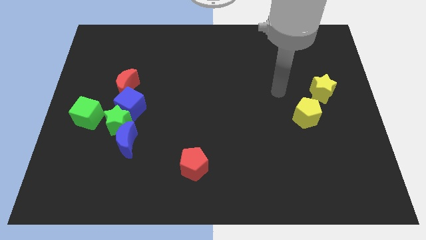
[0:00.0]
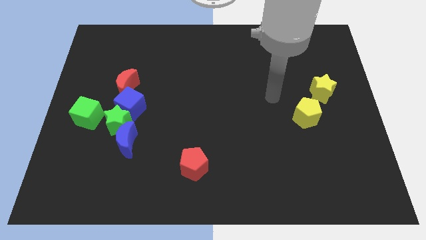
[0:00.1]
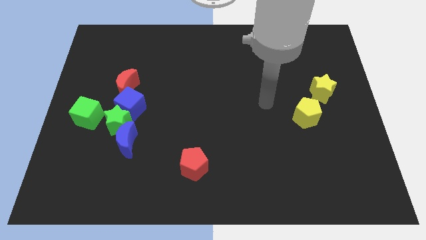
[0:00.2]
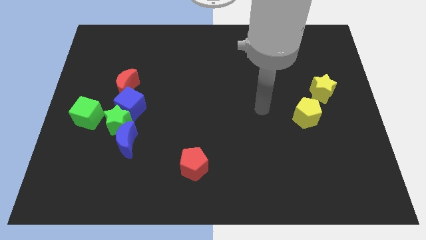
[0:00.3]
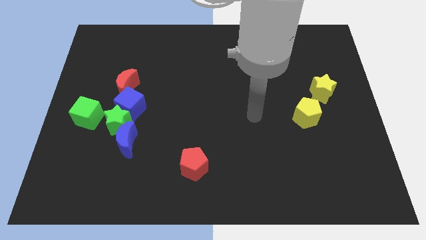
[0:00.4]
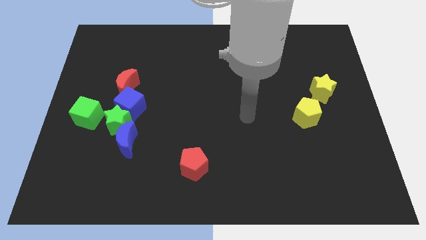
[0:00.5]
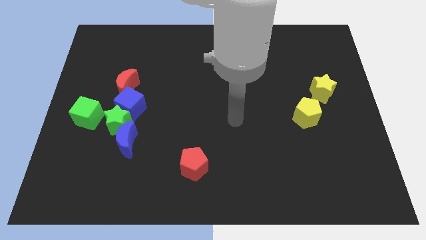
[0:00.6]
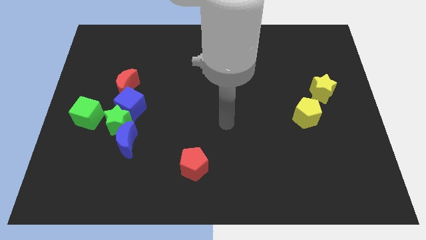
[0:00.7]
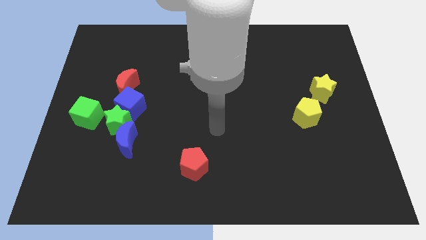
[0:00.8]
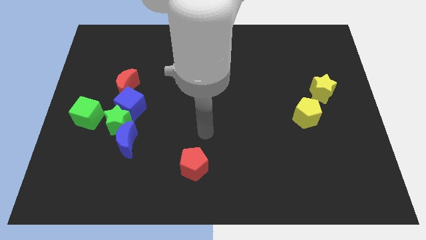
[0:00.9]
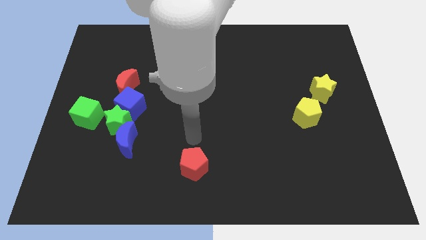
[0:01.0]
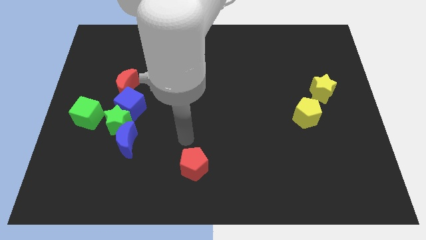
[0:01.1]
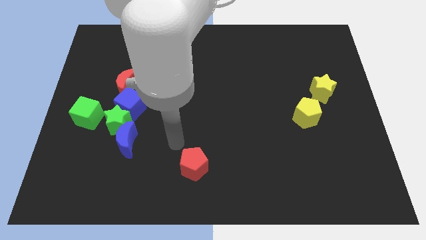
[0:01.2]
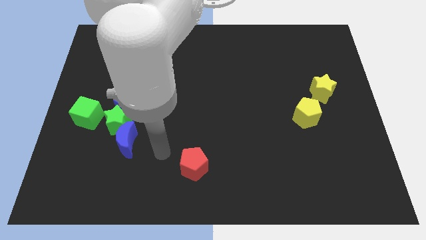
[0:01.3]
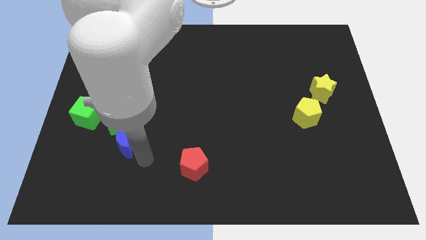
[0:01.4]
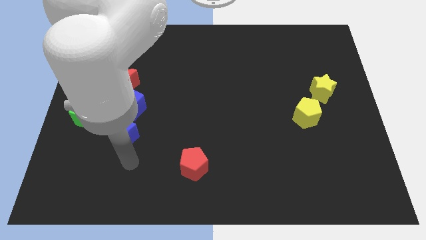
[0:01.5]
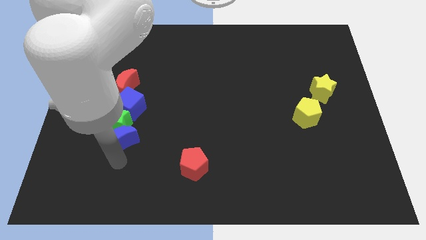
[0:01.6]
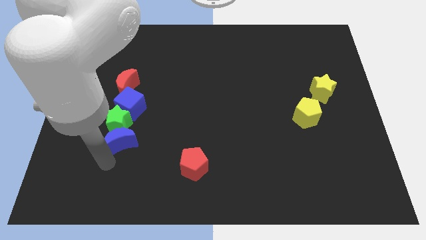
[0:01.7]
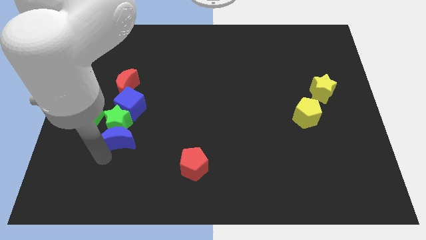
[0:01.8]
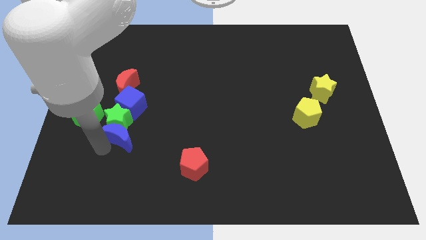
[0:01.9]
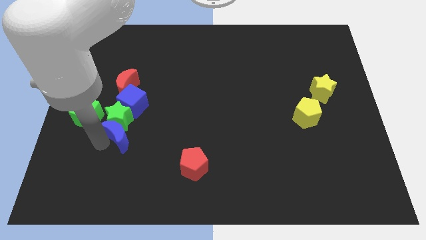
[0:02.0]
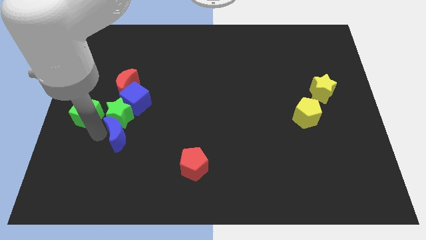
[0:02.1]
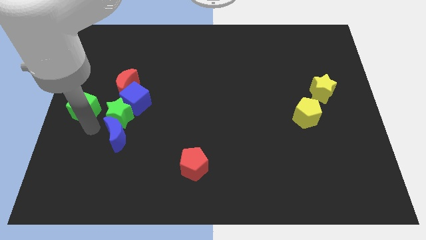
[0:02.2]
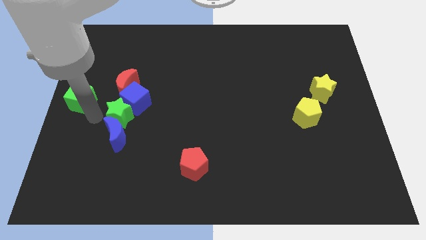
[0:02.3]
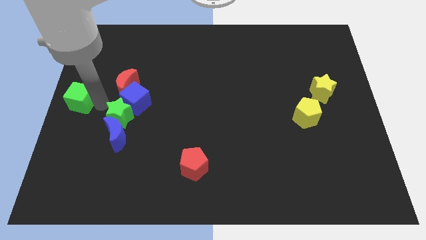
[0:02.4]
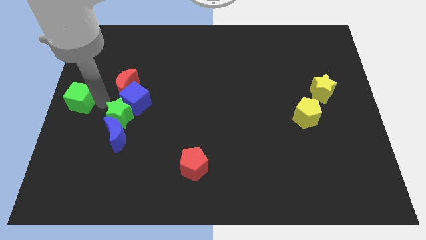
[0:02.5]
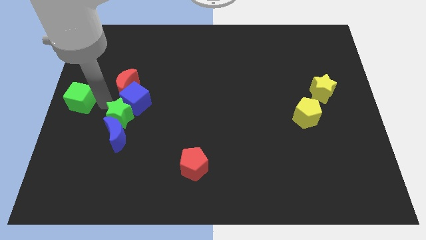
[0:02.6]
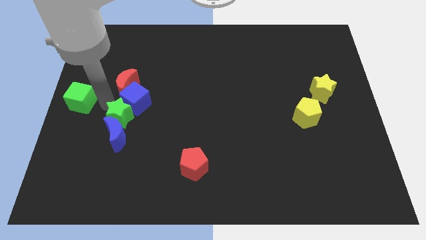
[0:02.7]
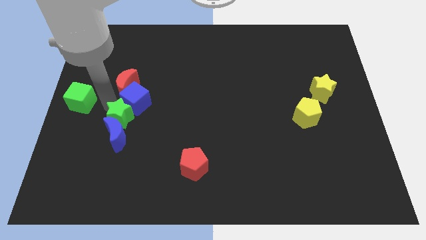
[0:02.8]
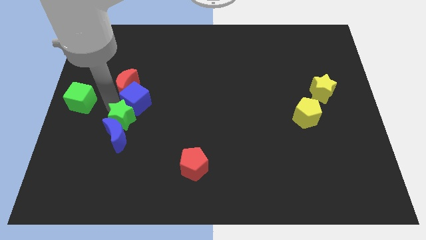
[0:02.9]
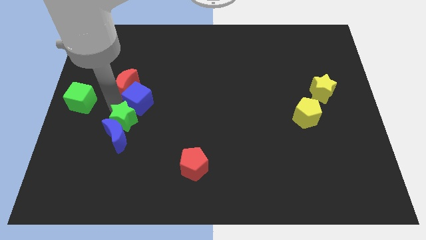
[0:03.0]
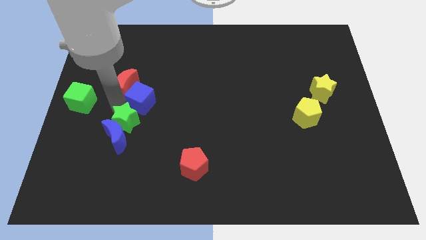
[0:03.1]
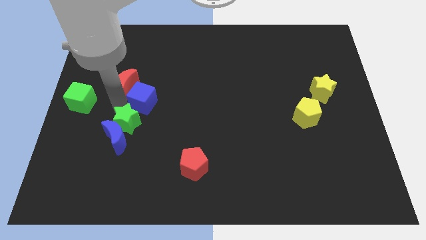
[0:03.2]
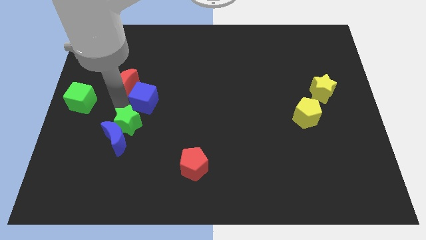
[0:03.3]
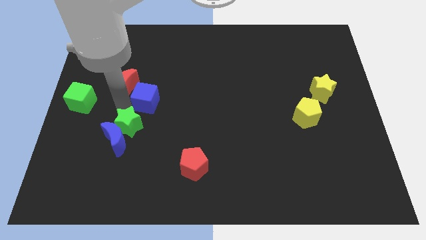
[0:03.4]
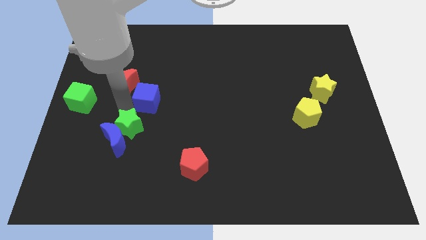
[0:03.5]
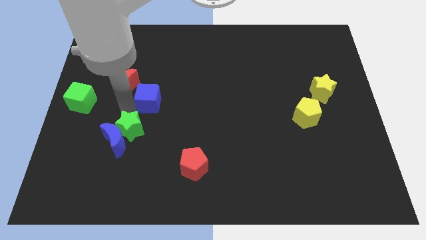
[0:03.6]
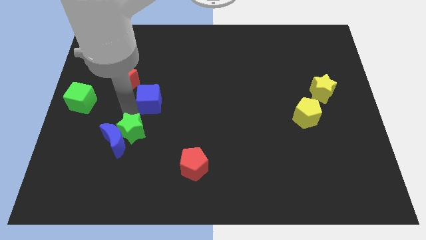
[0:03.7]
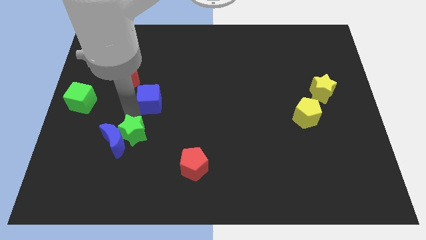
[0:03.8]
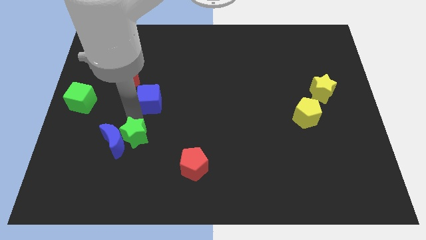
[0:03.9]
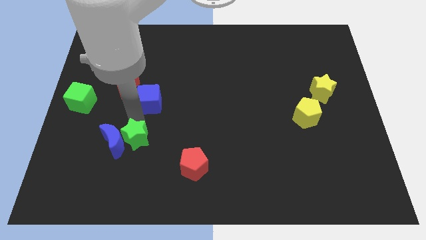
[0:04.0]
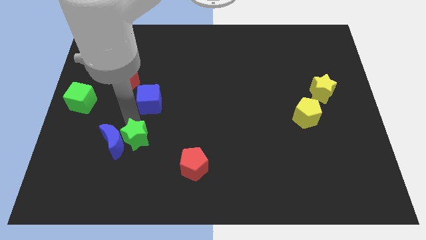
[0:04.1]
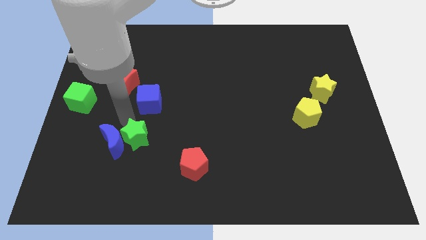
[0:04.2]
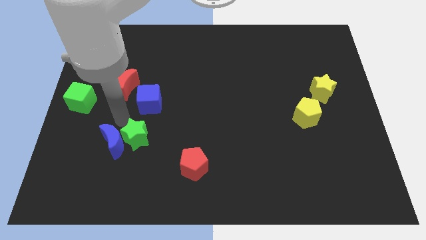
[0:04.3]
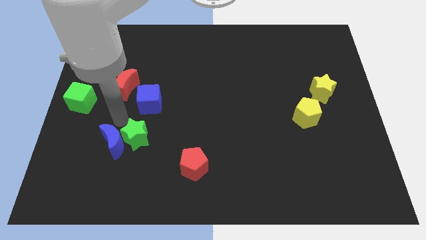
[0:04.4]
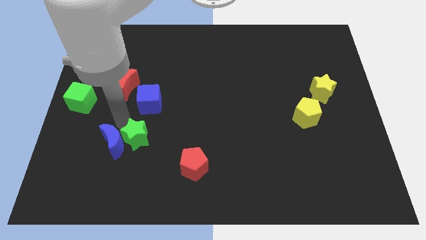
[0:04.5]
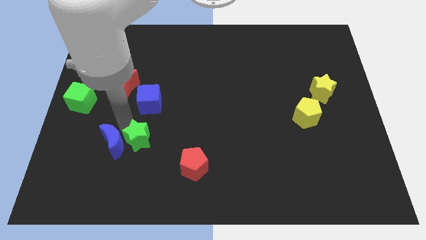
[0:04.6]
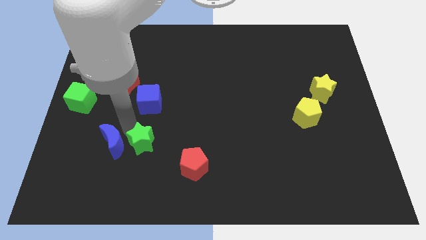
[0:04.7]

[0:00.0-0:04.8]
move the green star away from the blue cube, blue moon, and green cube

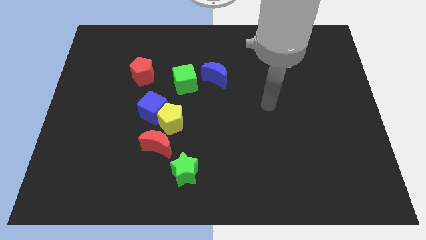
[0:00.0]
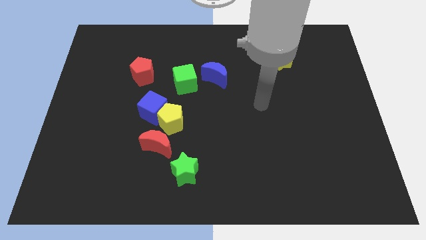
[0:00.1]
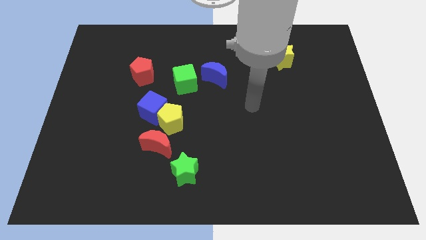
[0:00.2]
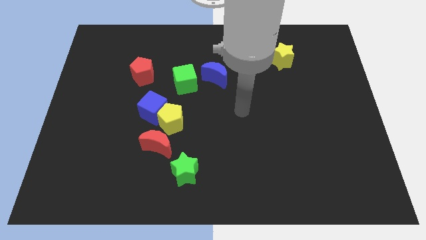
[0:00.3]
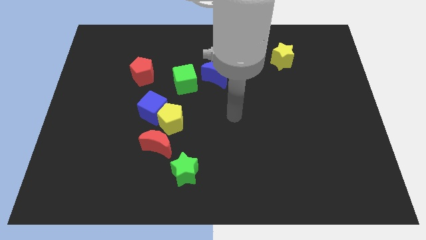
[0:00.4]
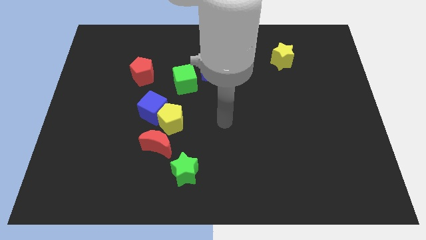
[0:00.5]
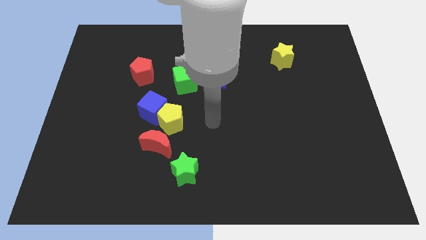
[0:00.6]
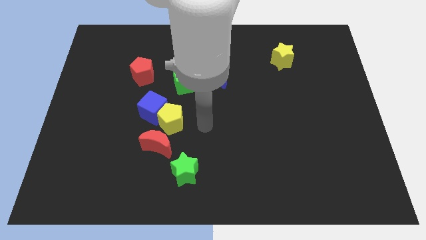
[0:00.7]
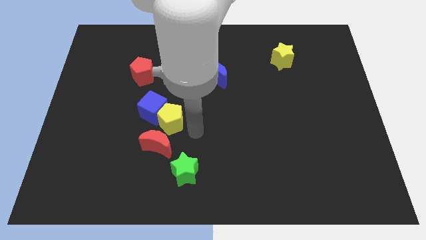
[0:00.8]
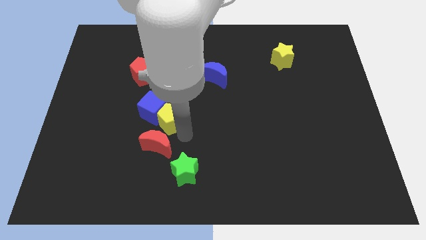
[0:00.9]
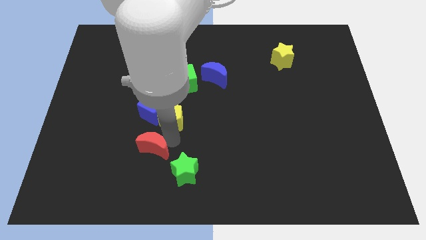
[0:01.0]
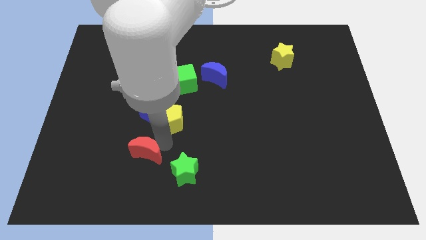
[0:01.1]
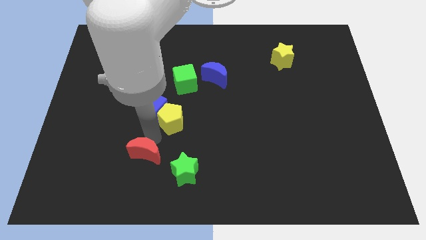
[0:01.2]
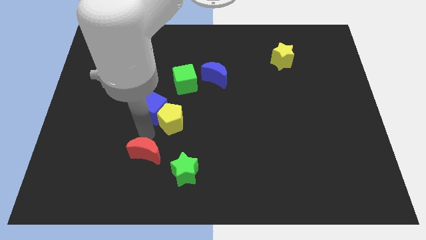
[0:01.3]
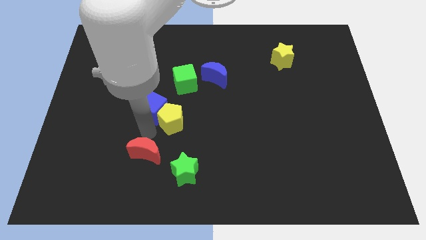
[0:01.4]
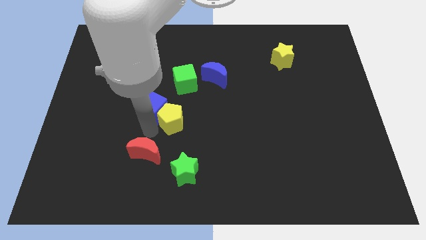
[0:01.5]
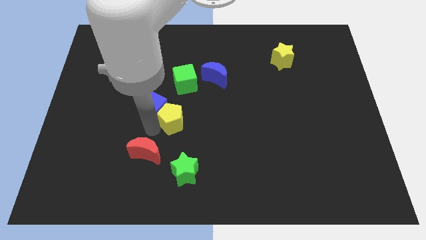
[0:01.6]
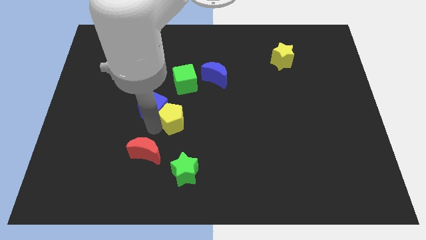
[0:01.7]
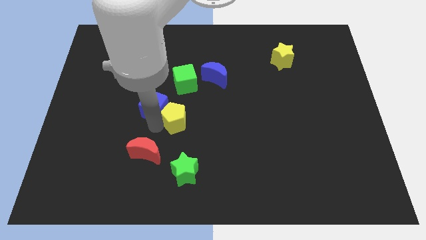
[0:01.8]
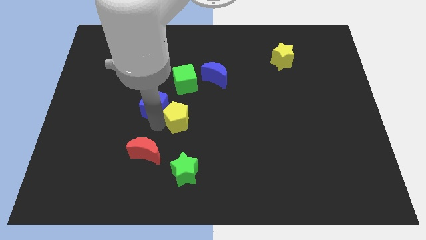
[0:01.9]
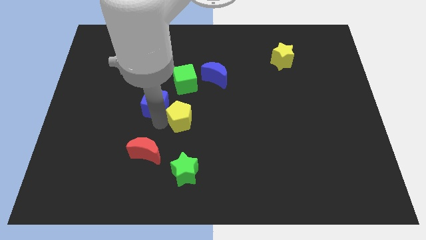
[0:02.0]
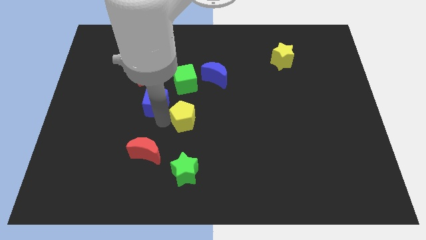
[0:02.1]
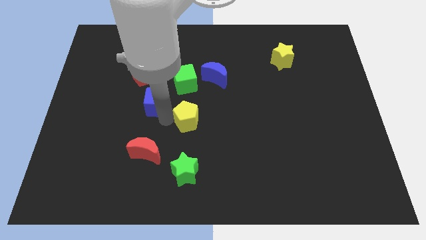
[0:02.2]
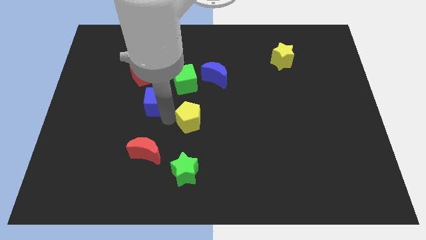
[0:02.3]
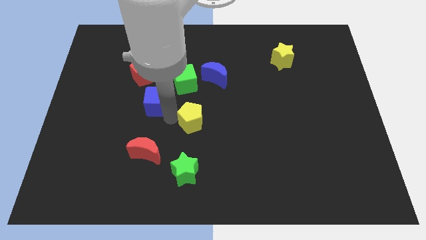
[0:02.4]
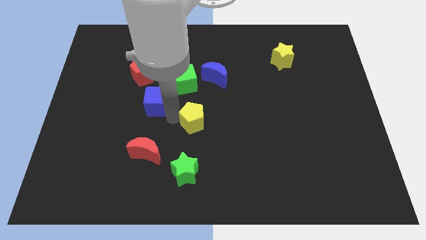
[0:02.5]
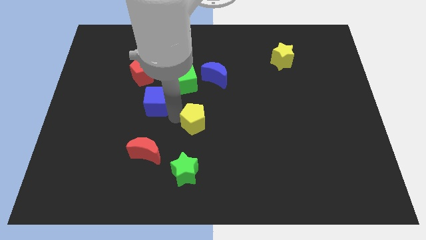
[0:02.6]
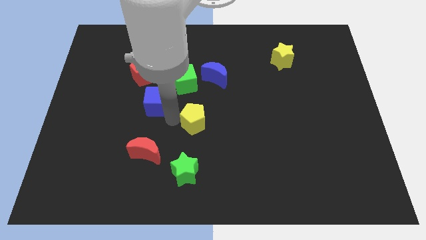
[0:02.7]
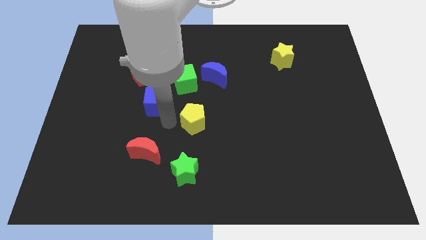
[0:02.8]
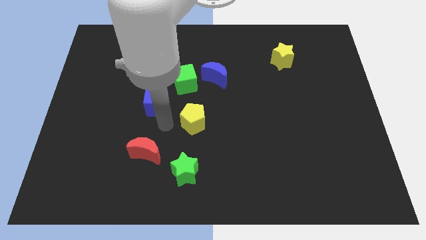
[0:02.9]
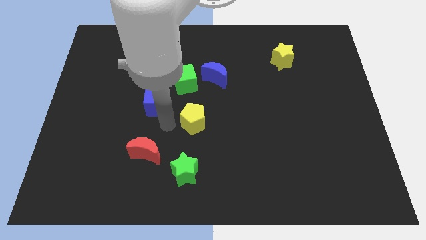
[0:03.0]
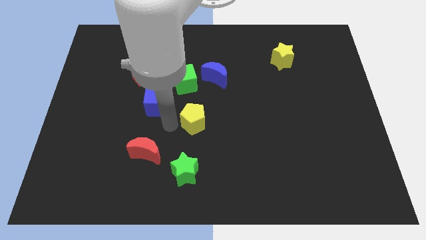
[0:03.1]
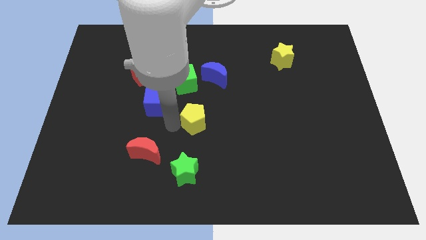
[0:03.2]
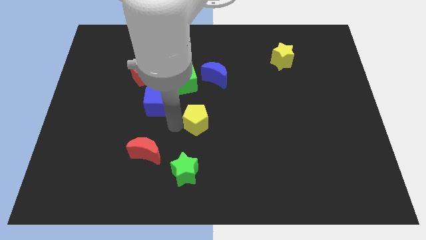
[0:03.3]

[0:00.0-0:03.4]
separate the yellow pentagon from the blue cube and red moon

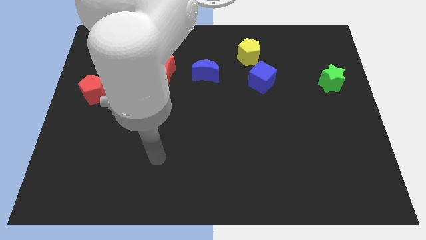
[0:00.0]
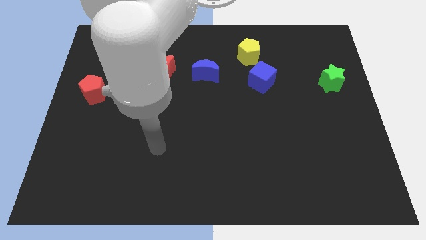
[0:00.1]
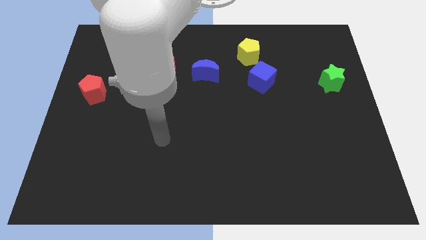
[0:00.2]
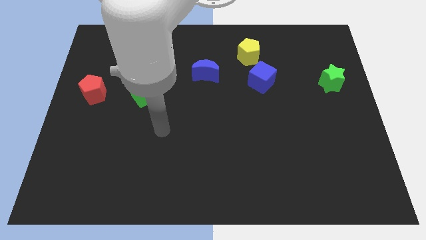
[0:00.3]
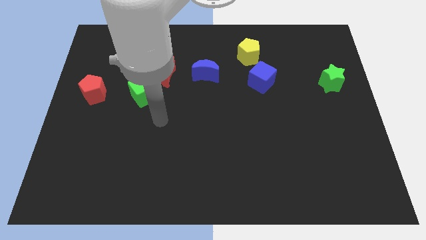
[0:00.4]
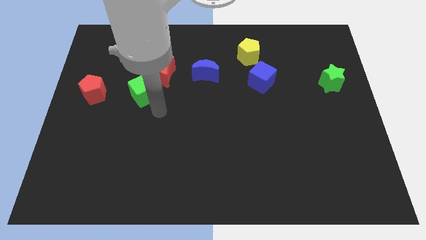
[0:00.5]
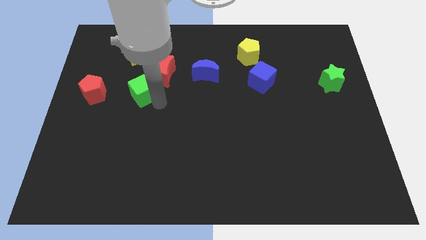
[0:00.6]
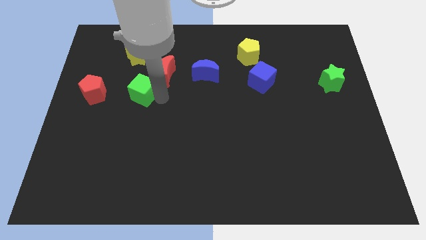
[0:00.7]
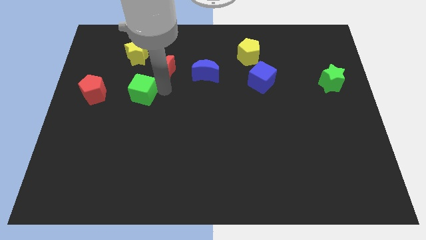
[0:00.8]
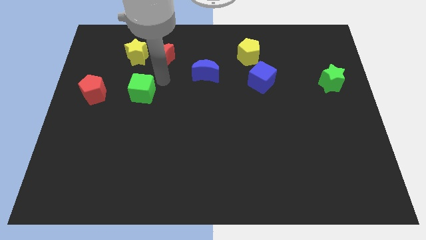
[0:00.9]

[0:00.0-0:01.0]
pull the green cube apart from the red moon

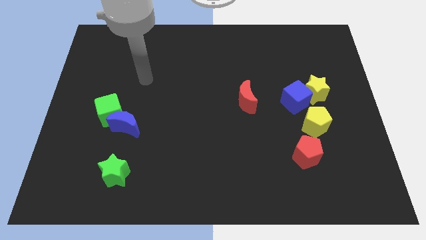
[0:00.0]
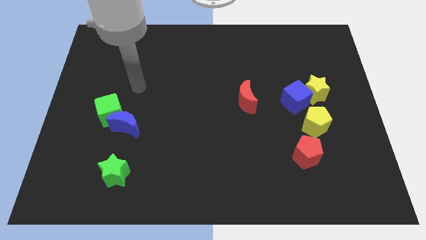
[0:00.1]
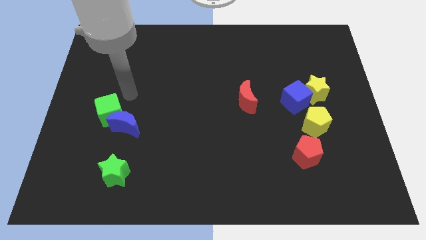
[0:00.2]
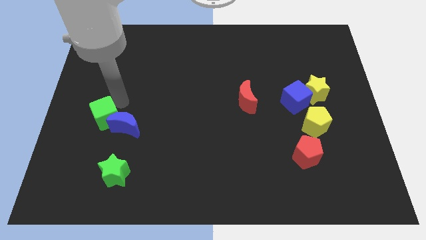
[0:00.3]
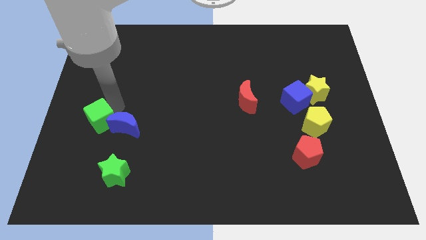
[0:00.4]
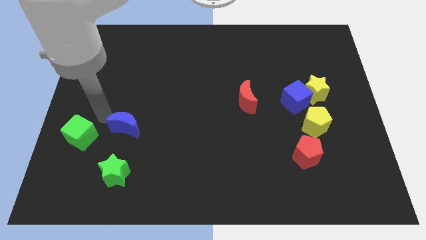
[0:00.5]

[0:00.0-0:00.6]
pull the blue moon apart from the green cube
